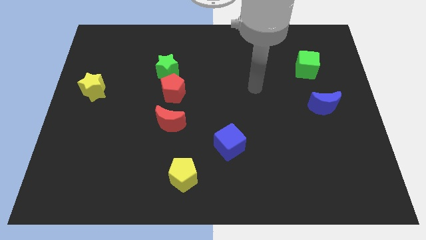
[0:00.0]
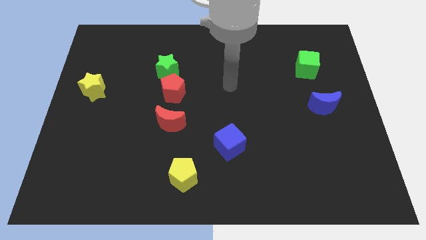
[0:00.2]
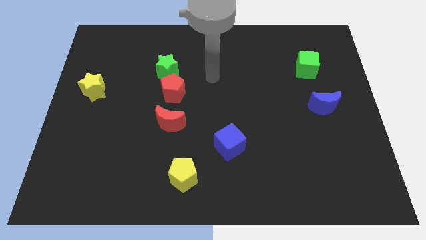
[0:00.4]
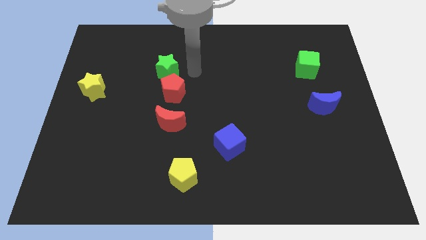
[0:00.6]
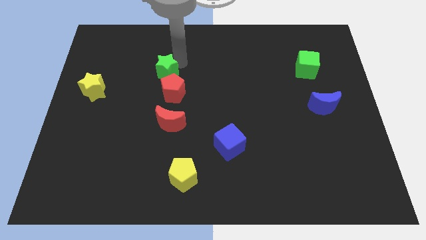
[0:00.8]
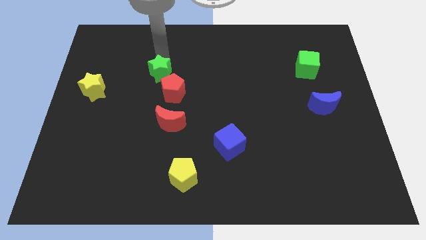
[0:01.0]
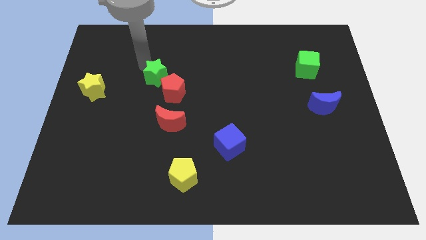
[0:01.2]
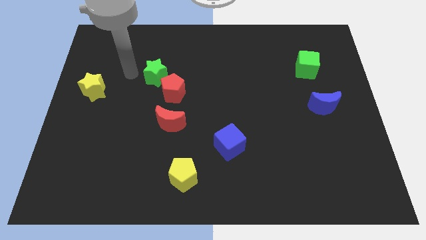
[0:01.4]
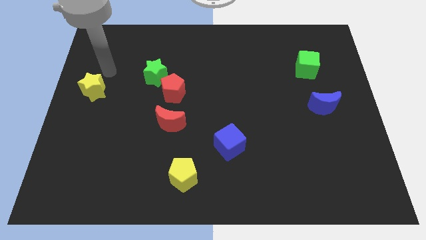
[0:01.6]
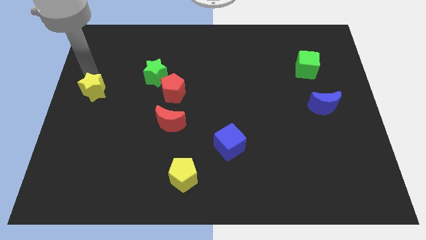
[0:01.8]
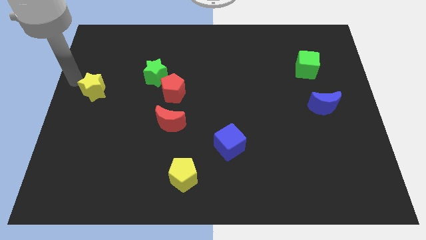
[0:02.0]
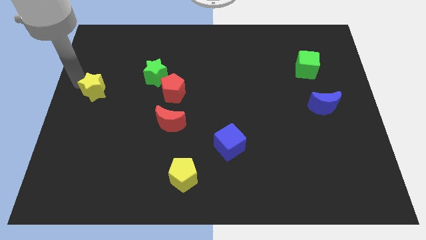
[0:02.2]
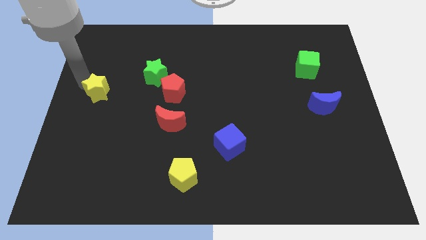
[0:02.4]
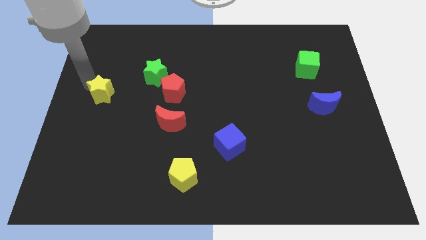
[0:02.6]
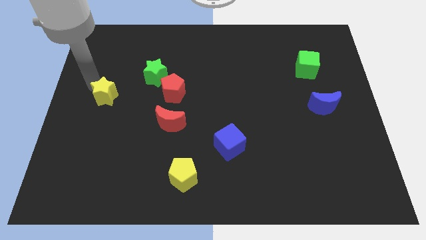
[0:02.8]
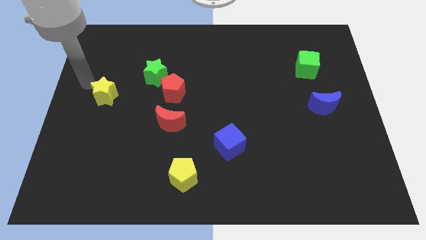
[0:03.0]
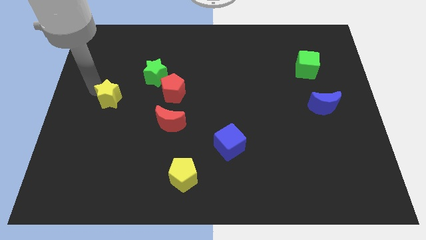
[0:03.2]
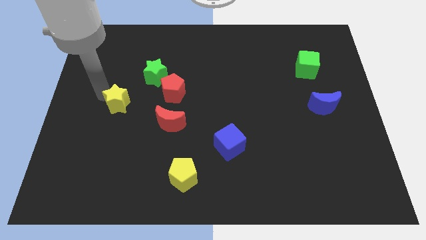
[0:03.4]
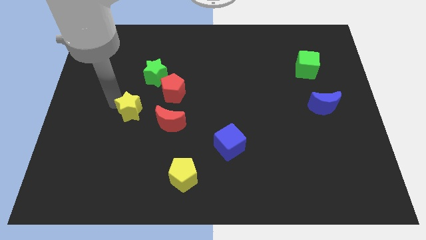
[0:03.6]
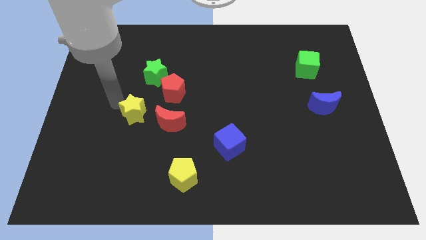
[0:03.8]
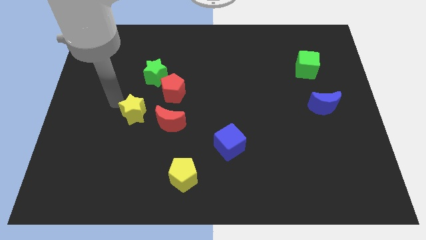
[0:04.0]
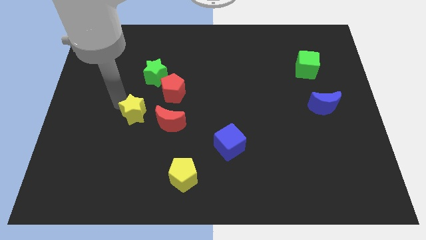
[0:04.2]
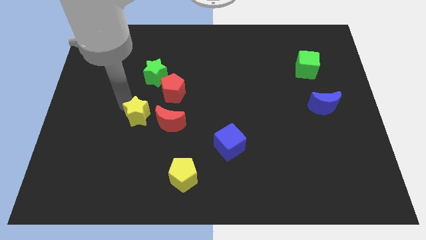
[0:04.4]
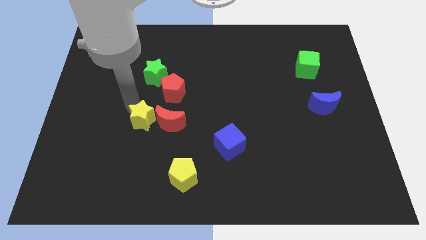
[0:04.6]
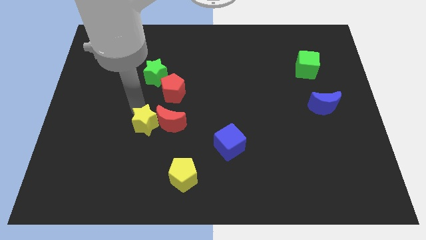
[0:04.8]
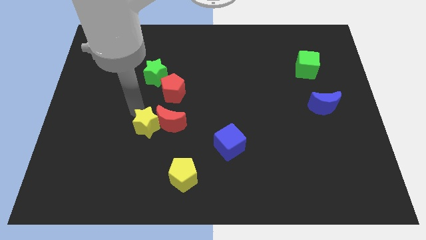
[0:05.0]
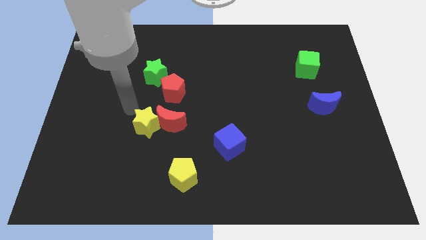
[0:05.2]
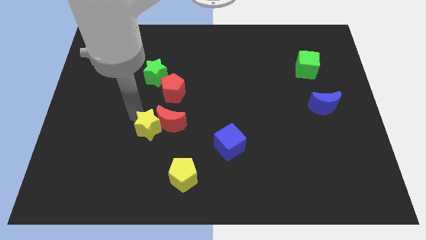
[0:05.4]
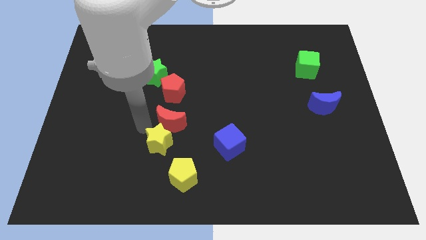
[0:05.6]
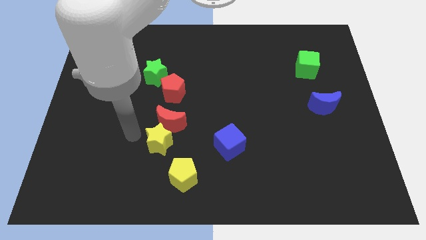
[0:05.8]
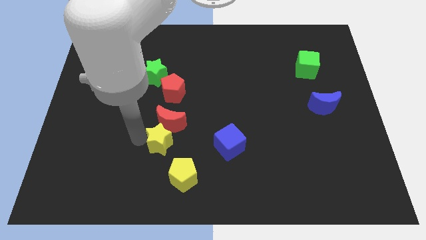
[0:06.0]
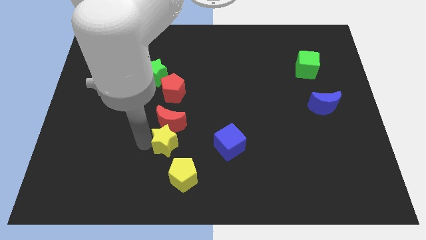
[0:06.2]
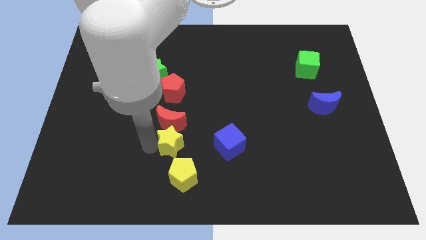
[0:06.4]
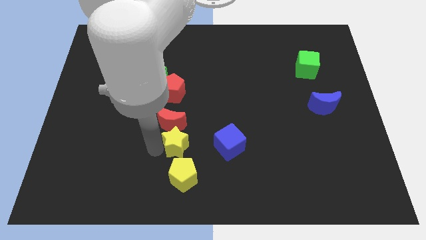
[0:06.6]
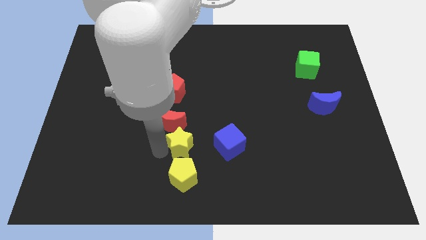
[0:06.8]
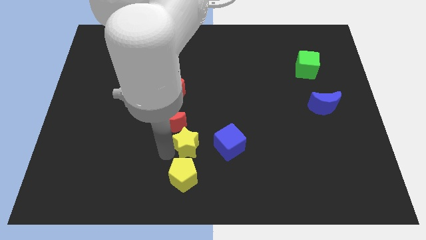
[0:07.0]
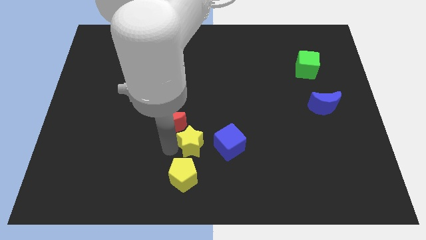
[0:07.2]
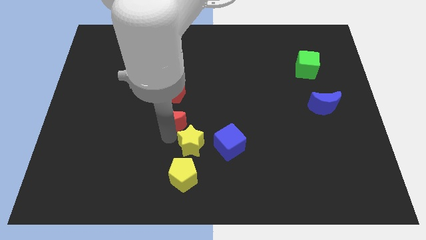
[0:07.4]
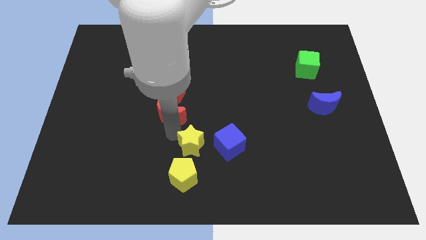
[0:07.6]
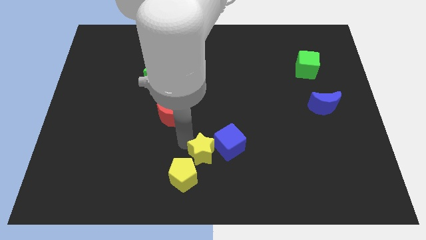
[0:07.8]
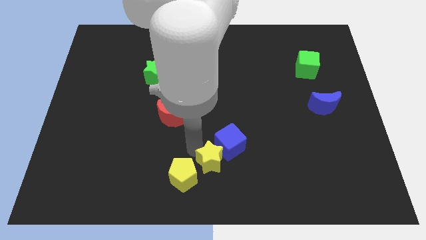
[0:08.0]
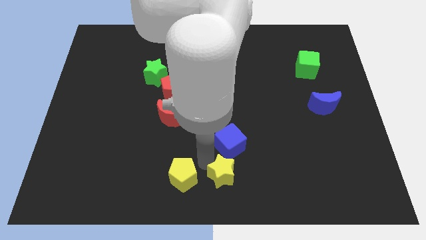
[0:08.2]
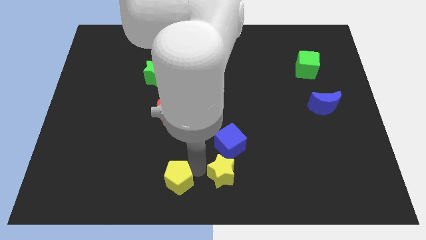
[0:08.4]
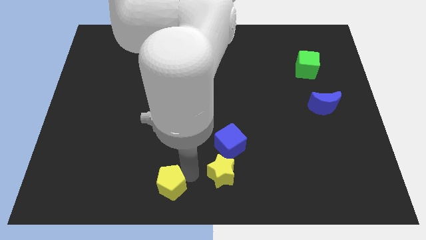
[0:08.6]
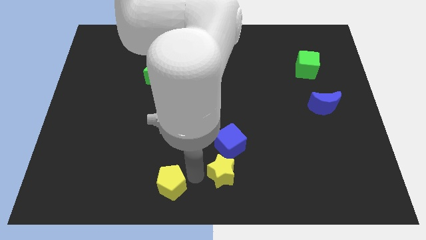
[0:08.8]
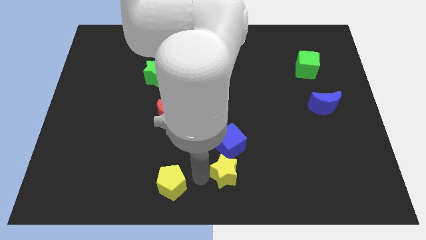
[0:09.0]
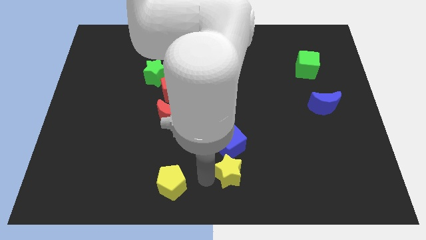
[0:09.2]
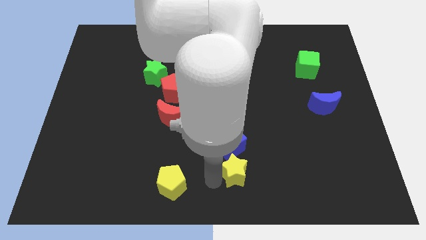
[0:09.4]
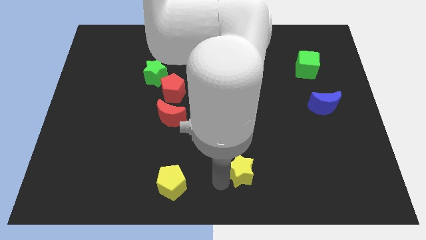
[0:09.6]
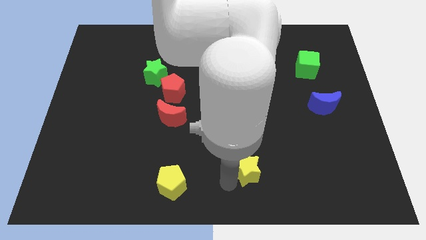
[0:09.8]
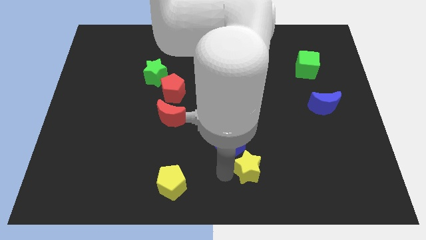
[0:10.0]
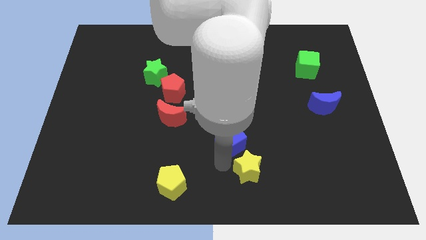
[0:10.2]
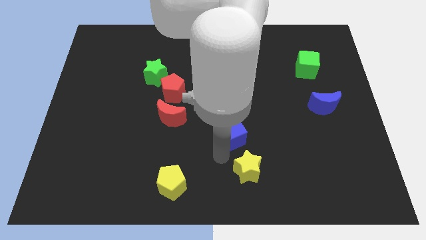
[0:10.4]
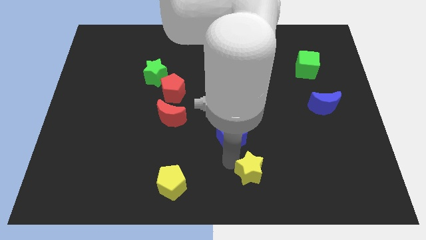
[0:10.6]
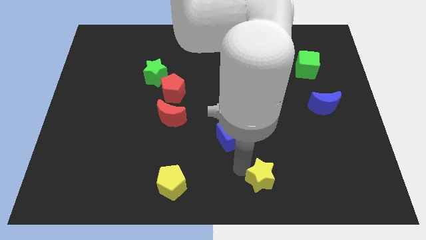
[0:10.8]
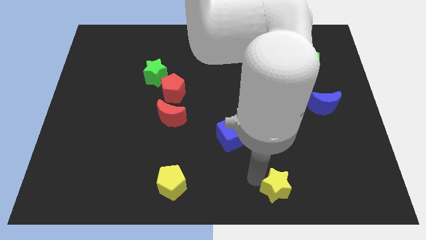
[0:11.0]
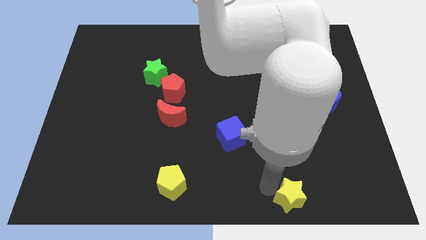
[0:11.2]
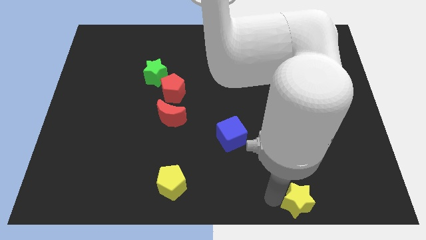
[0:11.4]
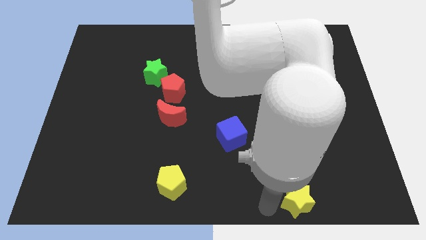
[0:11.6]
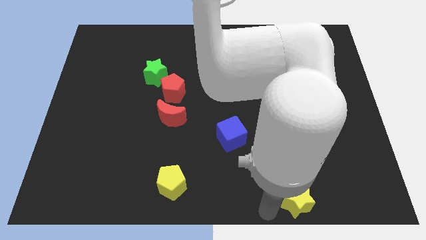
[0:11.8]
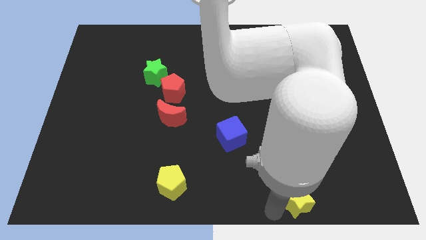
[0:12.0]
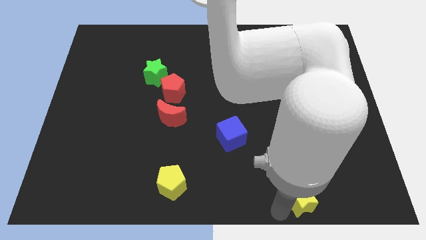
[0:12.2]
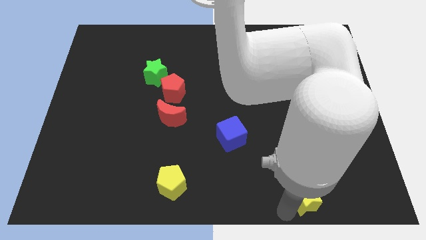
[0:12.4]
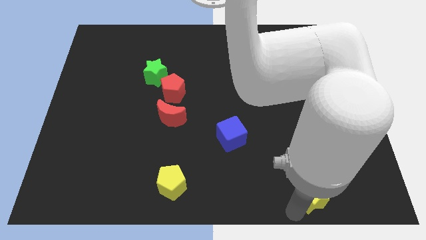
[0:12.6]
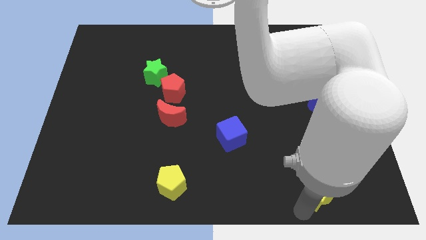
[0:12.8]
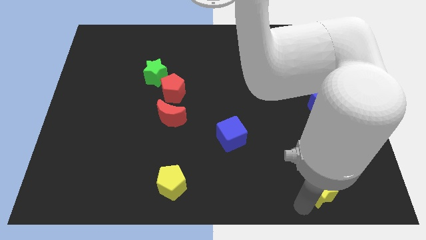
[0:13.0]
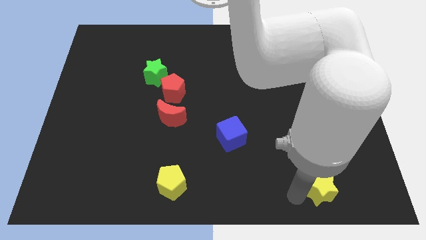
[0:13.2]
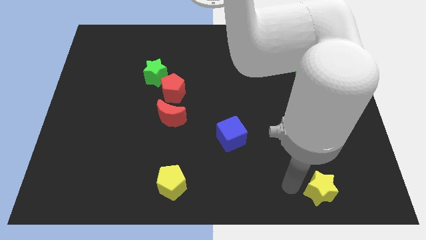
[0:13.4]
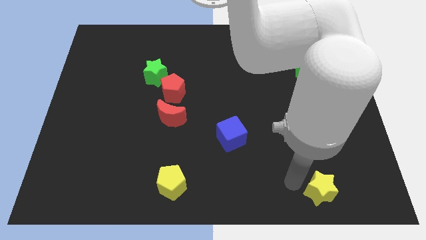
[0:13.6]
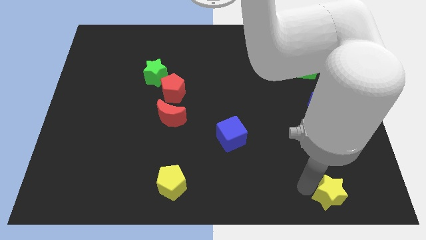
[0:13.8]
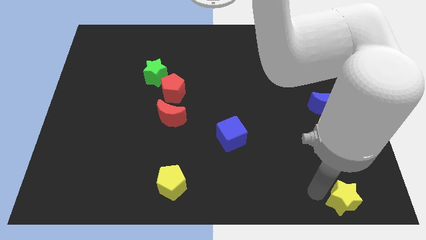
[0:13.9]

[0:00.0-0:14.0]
move the yellow star to the bottom right
